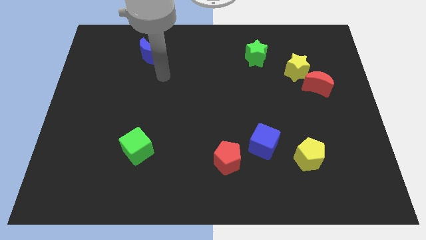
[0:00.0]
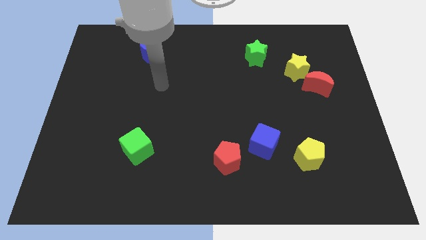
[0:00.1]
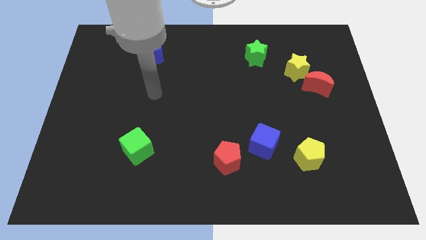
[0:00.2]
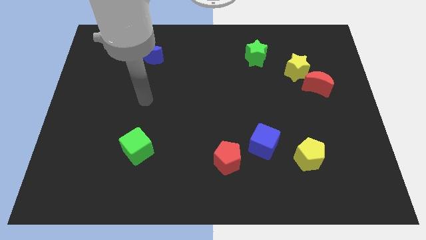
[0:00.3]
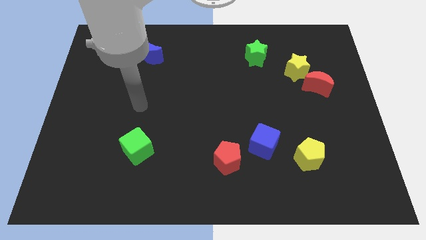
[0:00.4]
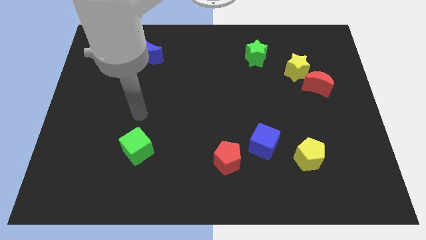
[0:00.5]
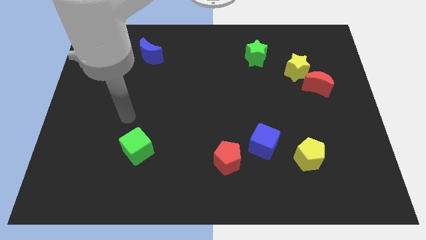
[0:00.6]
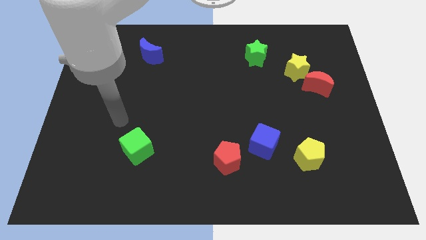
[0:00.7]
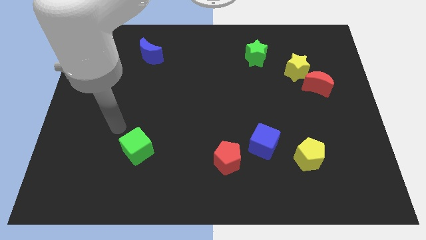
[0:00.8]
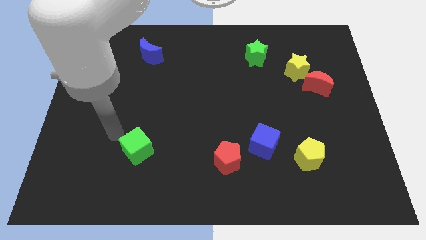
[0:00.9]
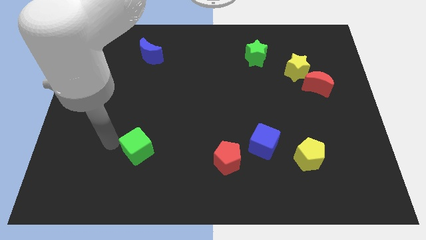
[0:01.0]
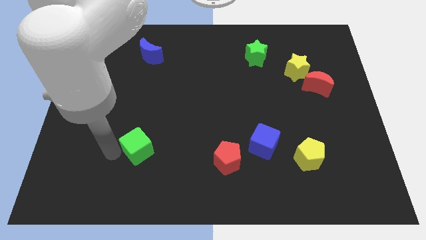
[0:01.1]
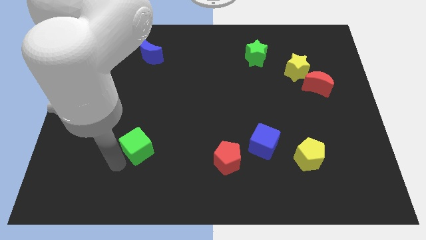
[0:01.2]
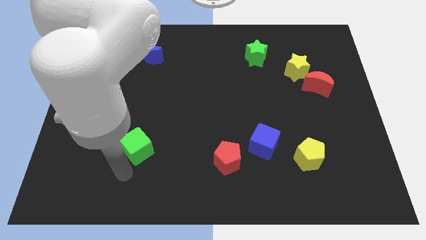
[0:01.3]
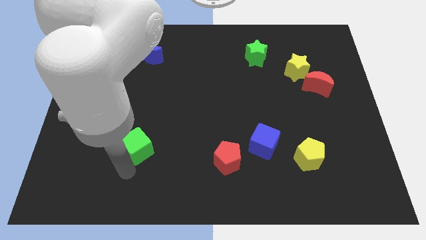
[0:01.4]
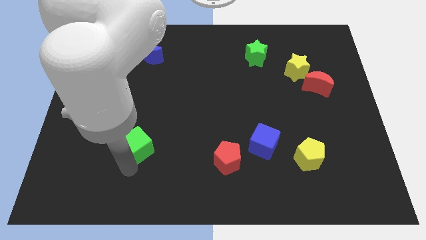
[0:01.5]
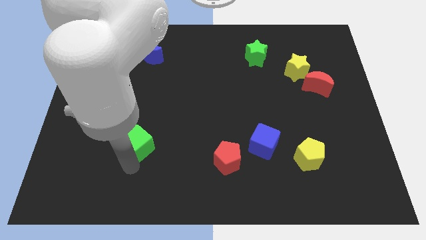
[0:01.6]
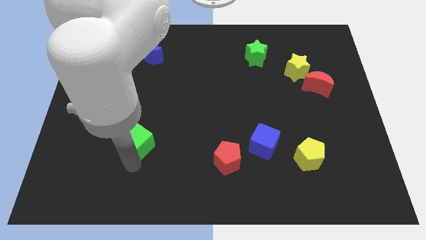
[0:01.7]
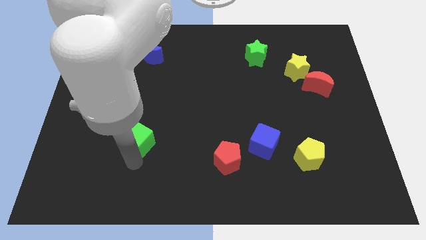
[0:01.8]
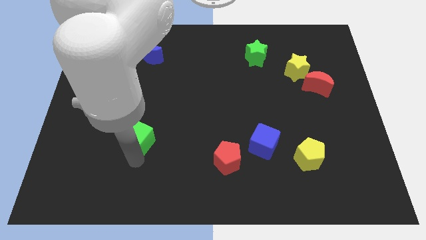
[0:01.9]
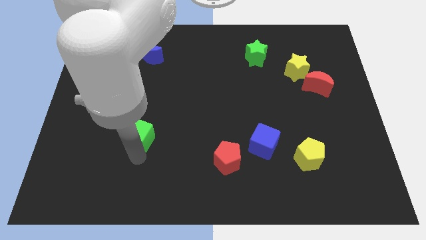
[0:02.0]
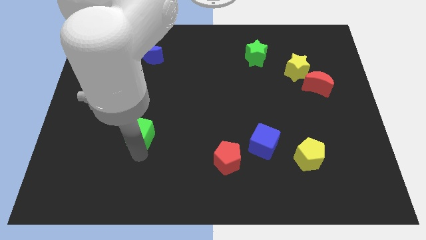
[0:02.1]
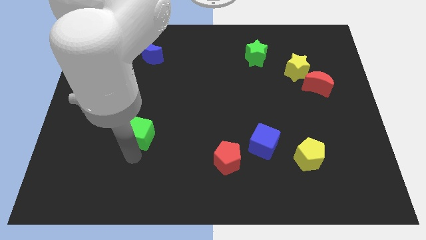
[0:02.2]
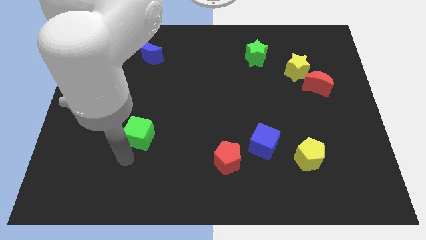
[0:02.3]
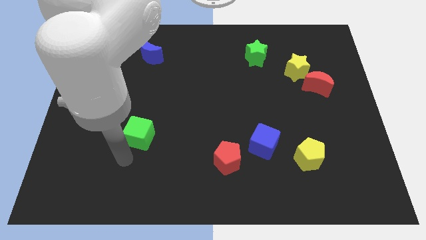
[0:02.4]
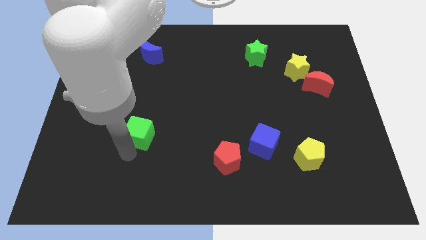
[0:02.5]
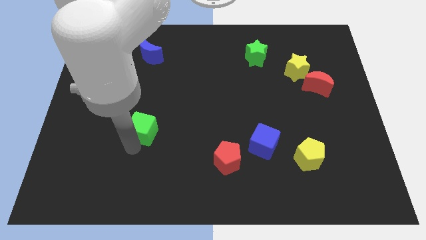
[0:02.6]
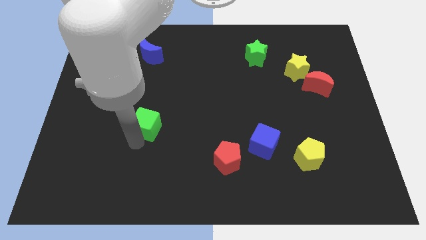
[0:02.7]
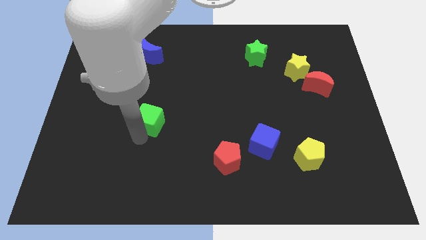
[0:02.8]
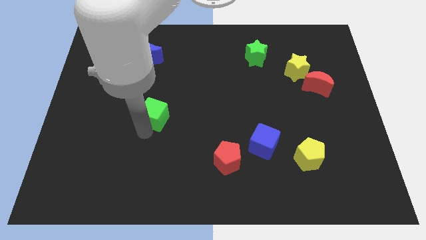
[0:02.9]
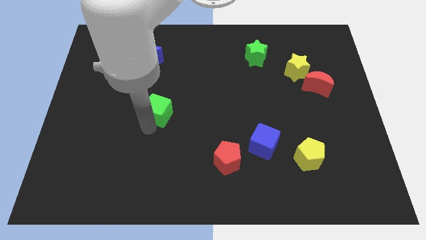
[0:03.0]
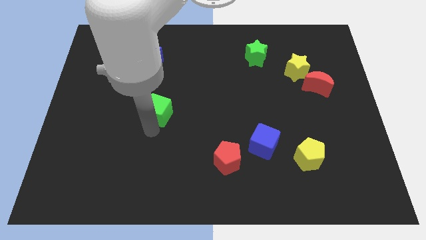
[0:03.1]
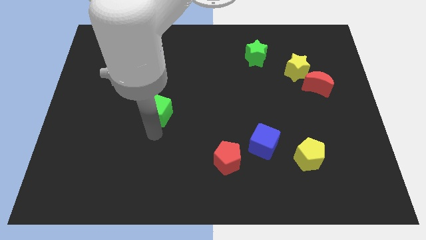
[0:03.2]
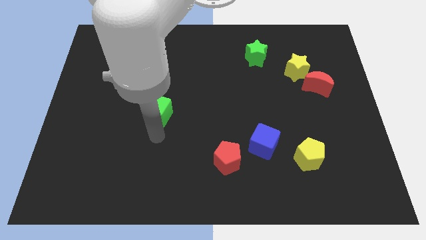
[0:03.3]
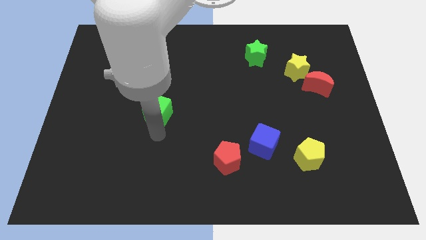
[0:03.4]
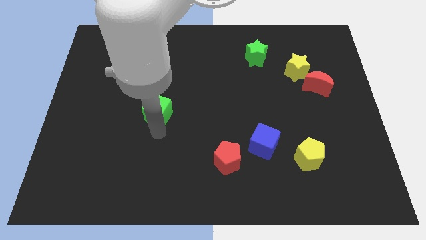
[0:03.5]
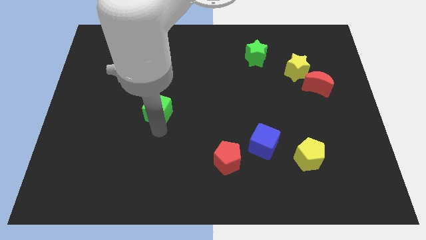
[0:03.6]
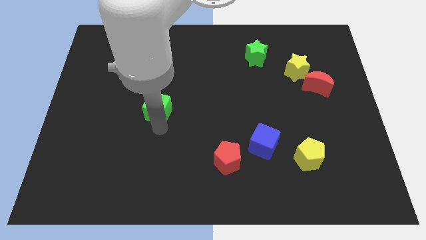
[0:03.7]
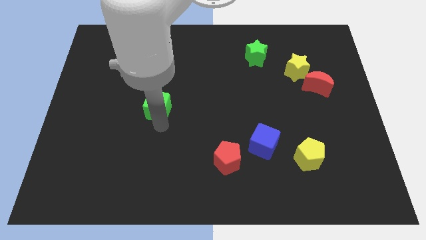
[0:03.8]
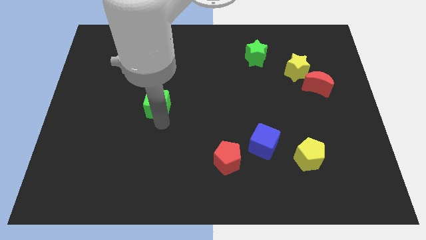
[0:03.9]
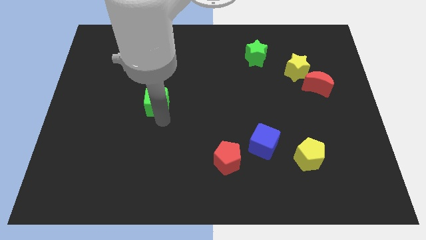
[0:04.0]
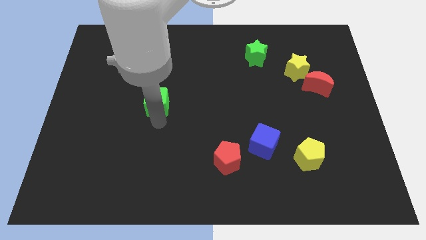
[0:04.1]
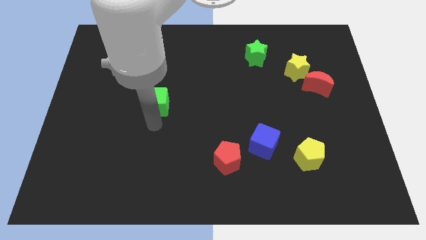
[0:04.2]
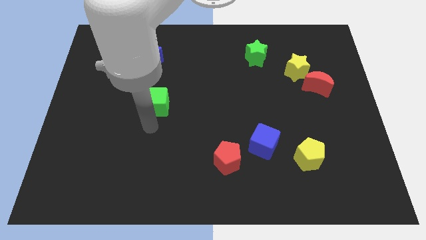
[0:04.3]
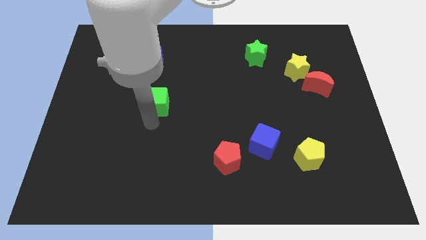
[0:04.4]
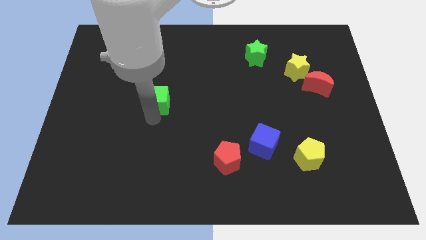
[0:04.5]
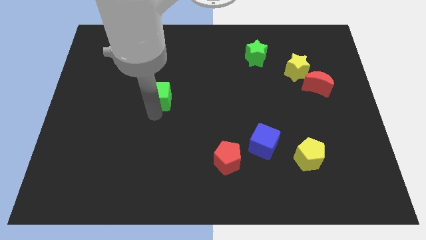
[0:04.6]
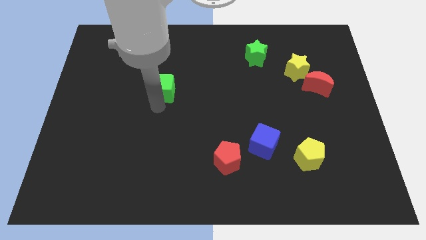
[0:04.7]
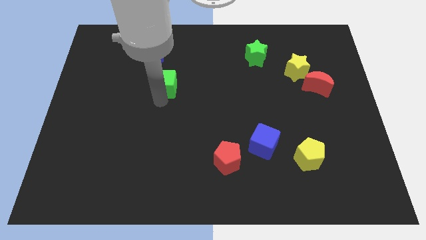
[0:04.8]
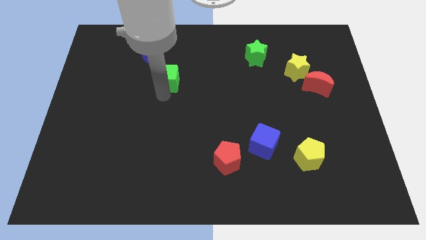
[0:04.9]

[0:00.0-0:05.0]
move the green cube to the bottom right side of the blue moon

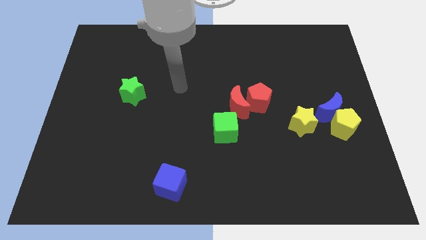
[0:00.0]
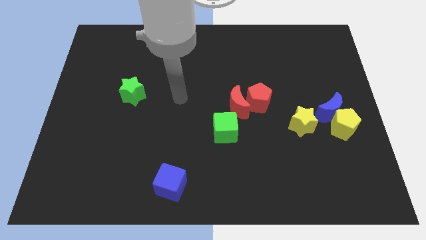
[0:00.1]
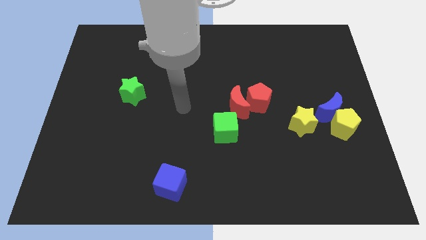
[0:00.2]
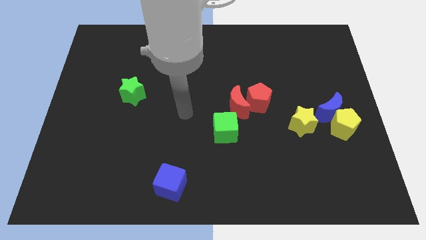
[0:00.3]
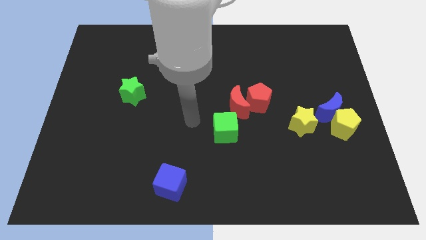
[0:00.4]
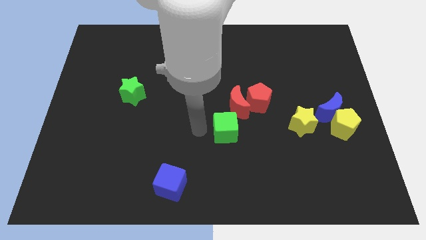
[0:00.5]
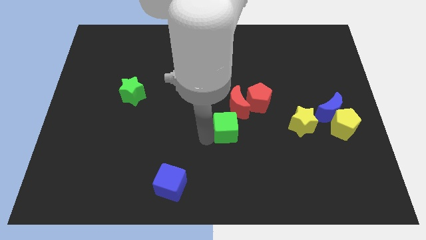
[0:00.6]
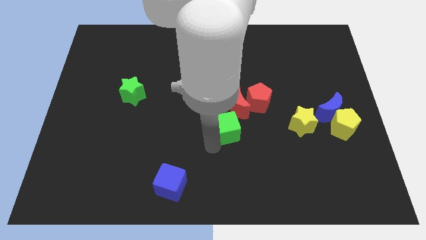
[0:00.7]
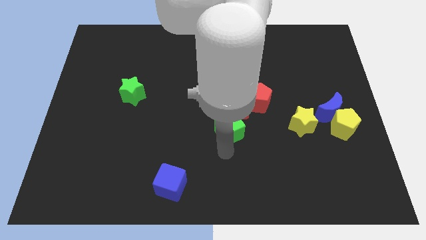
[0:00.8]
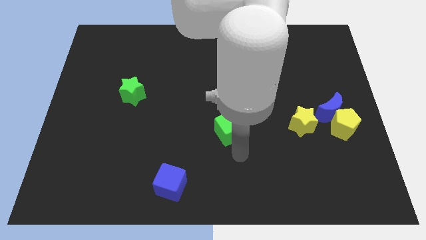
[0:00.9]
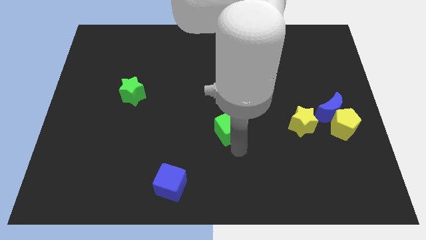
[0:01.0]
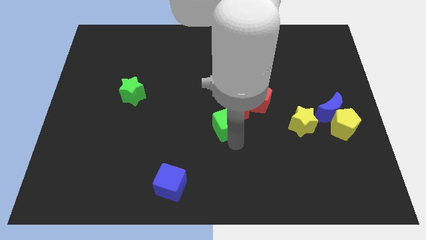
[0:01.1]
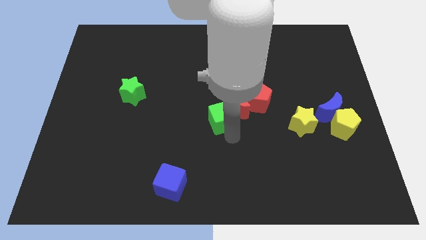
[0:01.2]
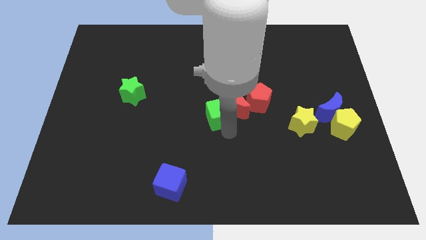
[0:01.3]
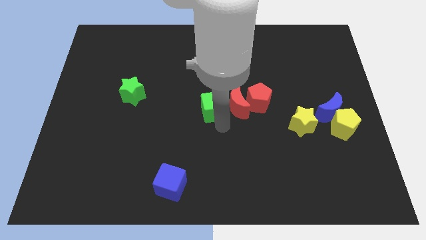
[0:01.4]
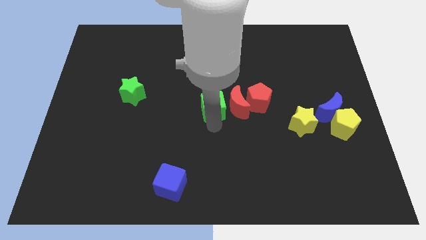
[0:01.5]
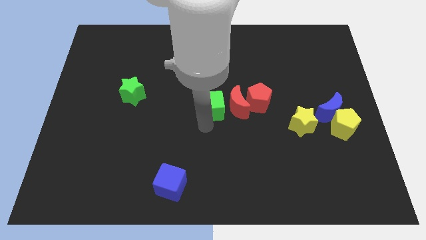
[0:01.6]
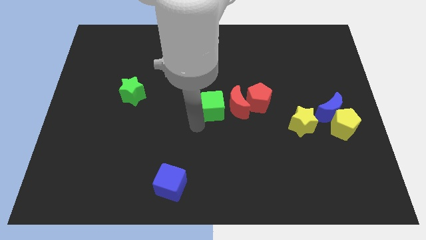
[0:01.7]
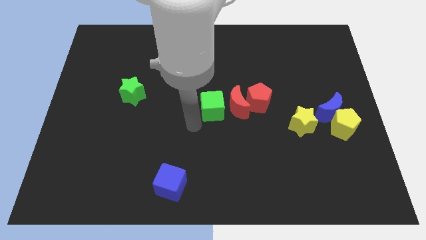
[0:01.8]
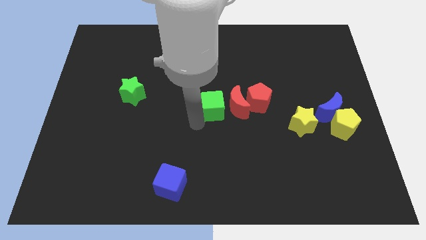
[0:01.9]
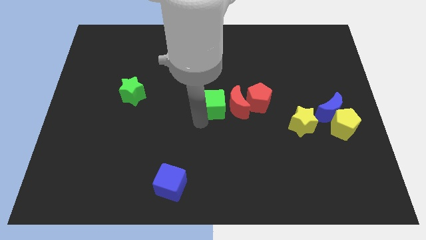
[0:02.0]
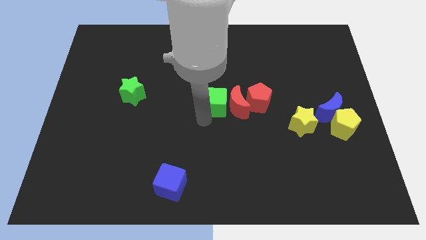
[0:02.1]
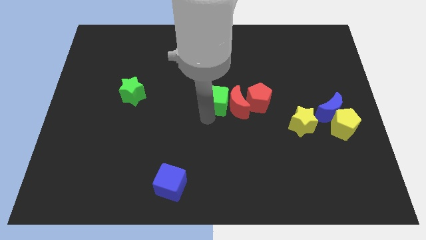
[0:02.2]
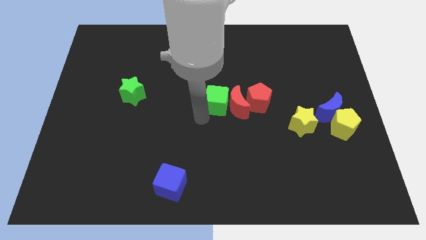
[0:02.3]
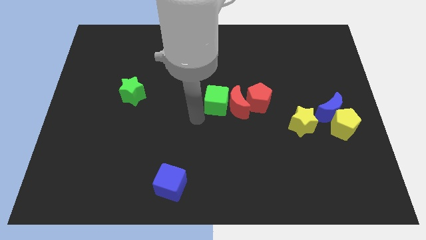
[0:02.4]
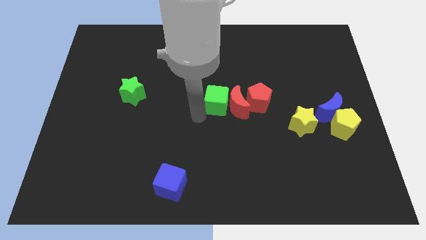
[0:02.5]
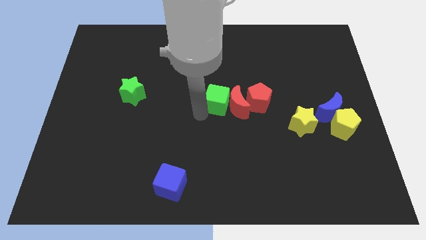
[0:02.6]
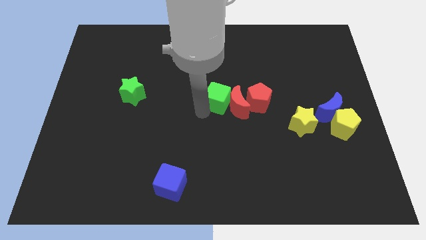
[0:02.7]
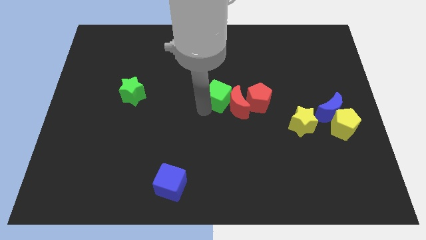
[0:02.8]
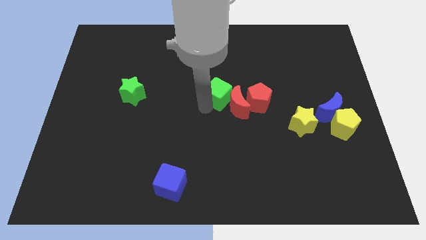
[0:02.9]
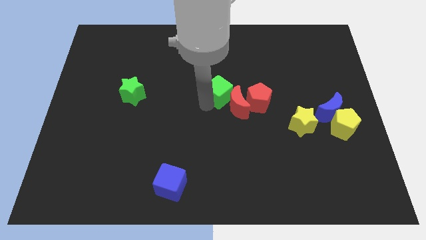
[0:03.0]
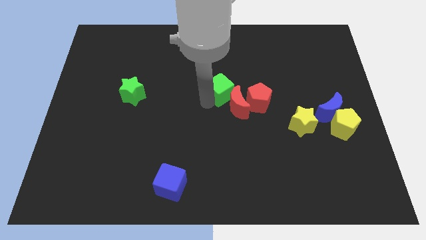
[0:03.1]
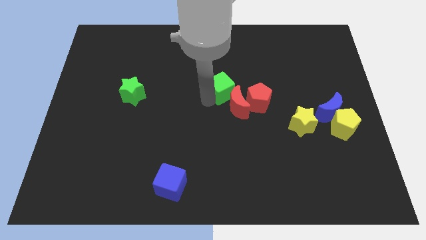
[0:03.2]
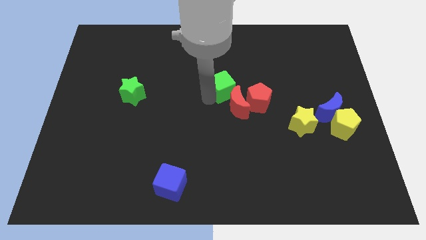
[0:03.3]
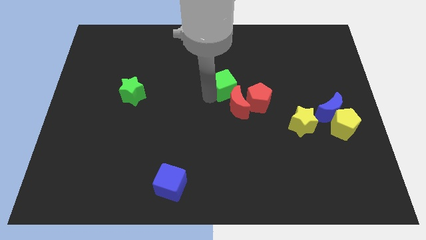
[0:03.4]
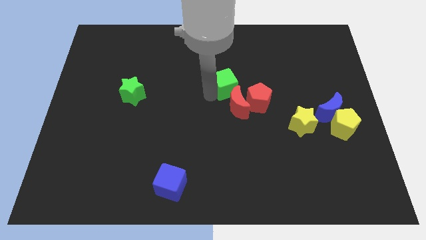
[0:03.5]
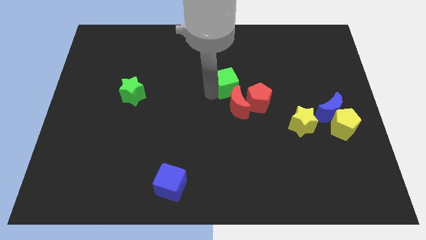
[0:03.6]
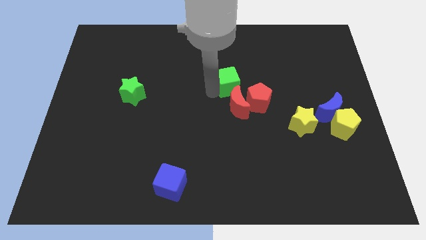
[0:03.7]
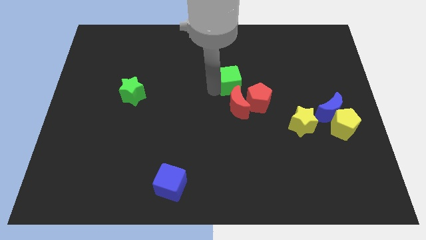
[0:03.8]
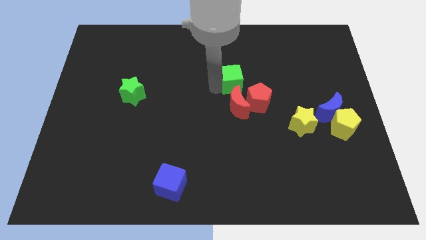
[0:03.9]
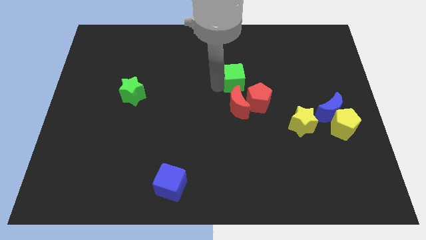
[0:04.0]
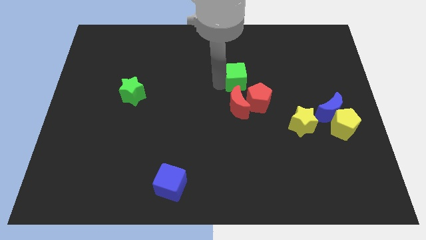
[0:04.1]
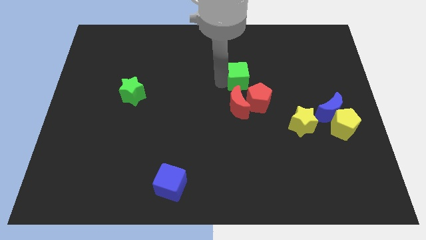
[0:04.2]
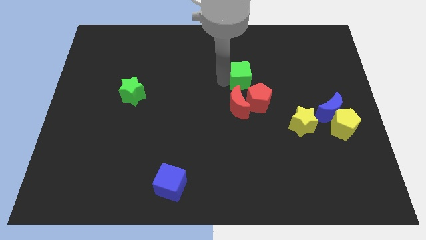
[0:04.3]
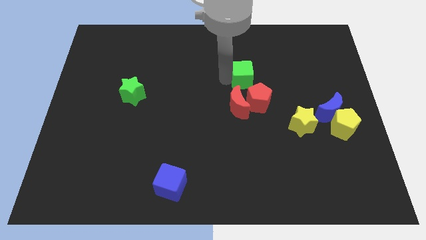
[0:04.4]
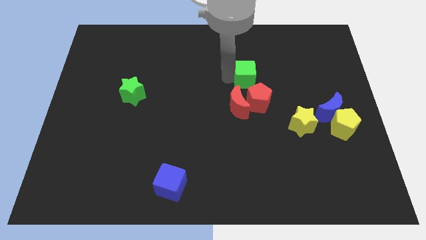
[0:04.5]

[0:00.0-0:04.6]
move the green cube diagonally up and to the right of the red moon
